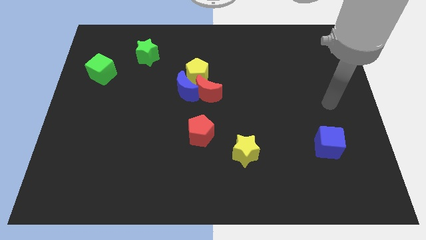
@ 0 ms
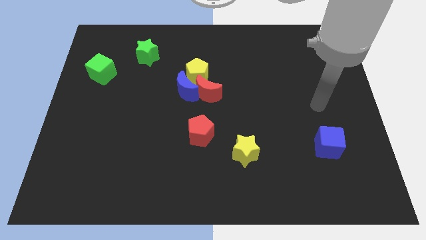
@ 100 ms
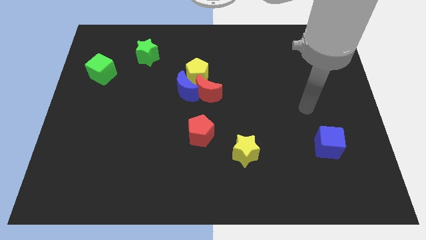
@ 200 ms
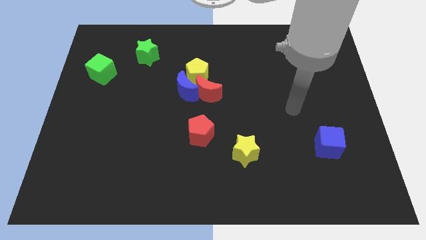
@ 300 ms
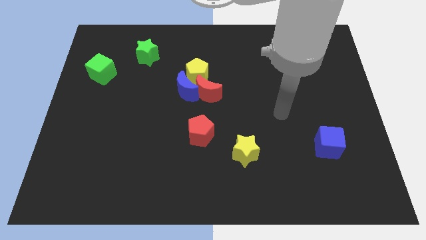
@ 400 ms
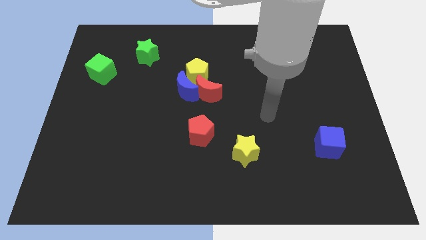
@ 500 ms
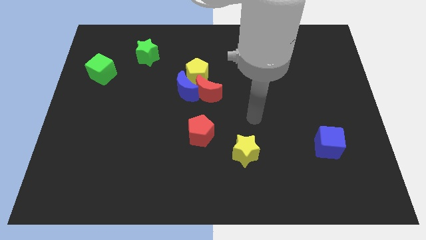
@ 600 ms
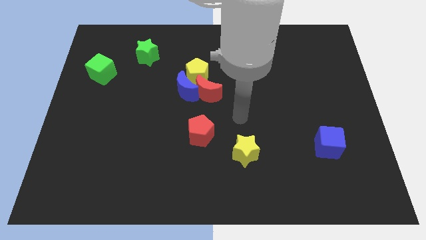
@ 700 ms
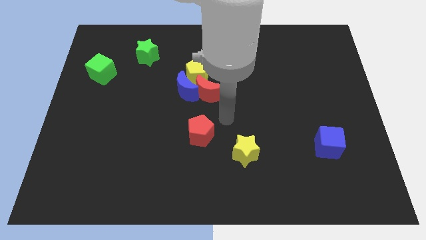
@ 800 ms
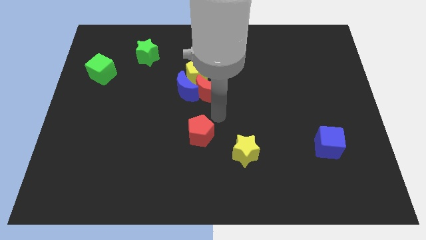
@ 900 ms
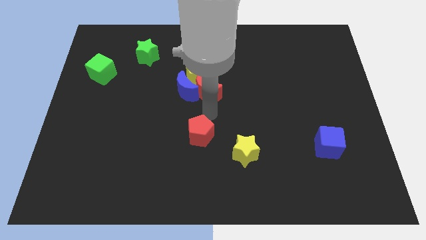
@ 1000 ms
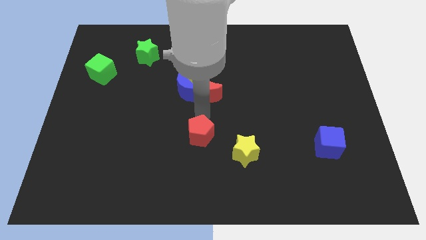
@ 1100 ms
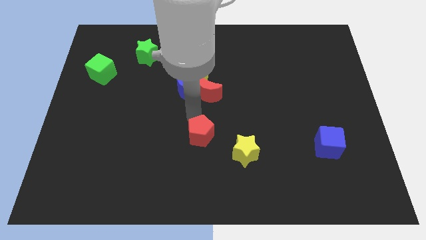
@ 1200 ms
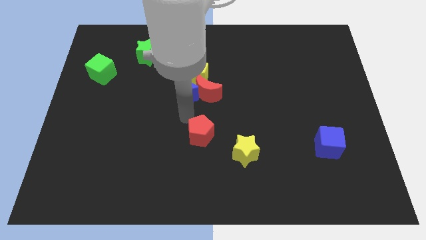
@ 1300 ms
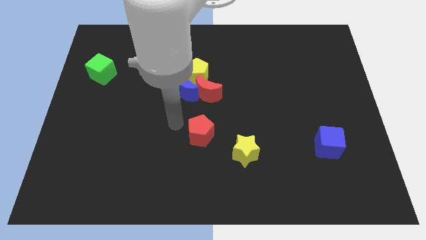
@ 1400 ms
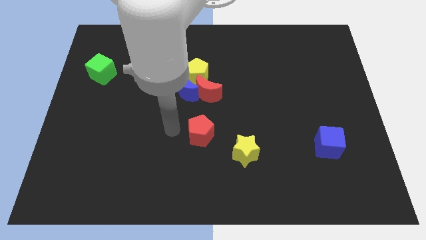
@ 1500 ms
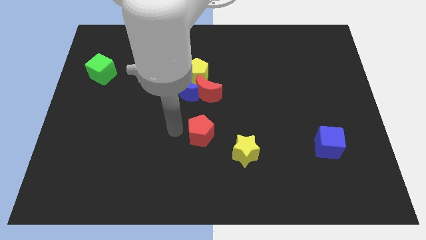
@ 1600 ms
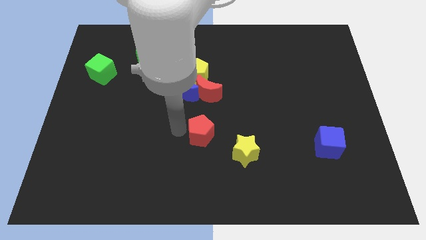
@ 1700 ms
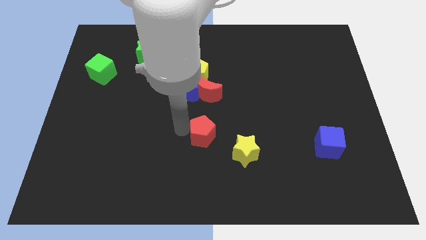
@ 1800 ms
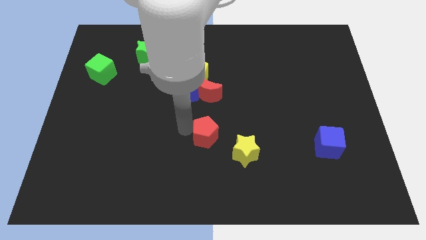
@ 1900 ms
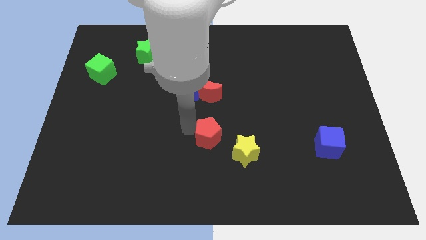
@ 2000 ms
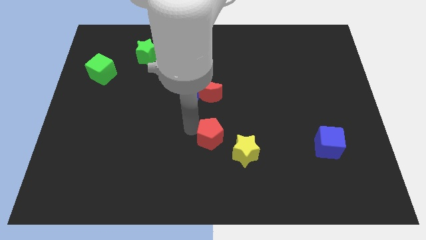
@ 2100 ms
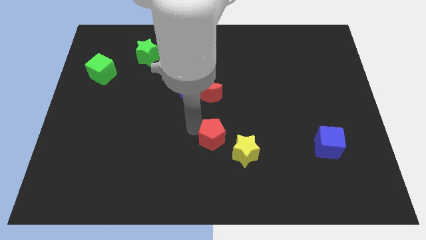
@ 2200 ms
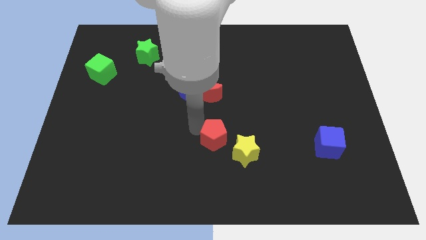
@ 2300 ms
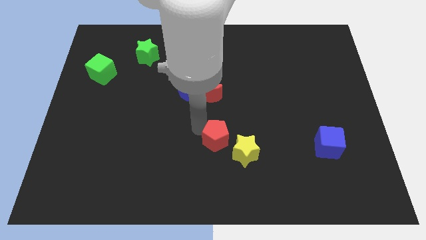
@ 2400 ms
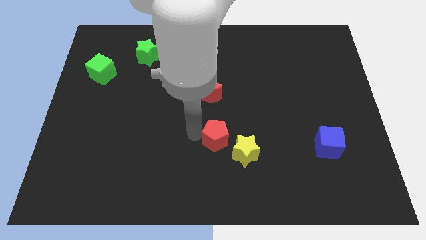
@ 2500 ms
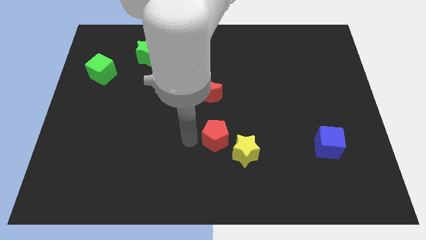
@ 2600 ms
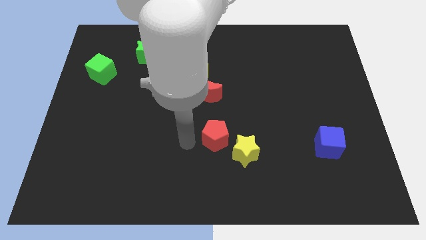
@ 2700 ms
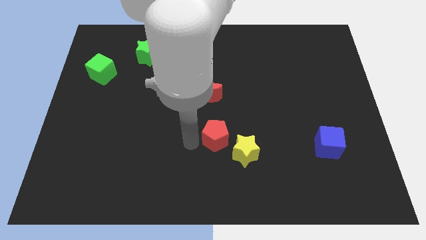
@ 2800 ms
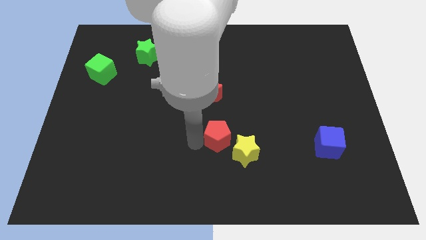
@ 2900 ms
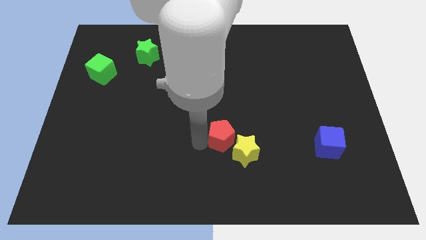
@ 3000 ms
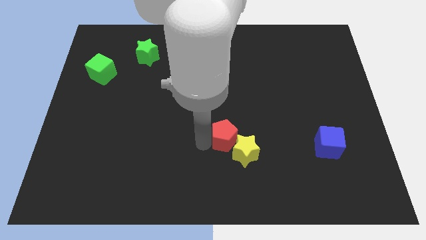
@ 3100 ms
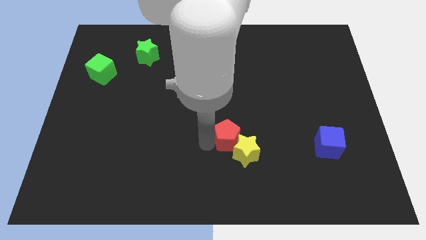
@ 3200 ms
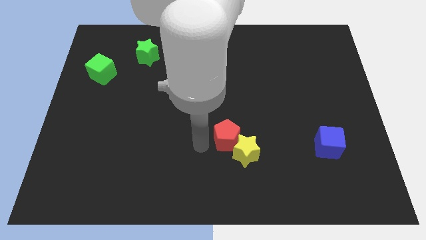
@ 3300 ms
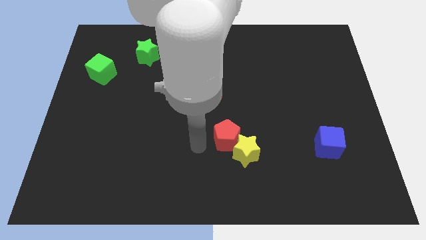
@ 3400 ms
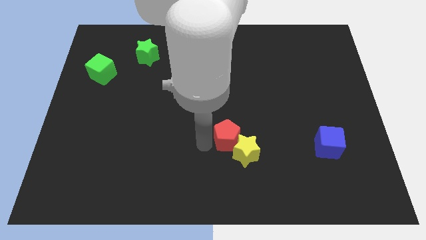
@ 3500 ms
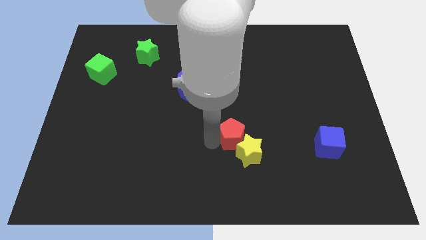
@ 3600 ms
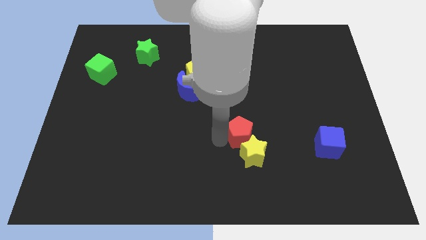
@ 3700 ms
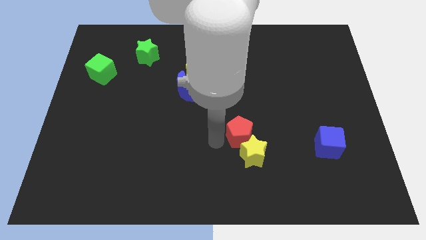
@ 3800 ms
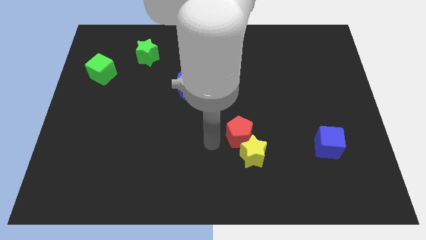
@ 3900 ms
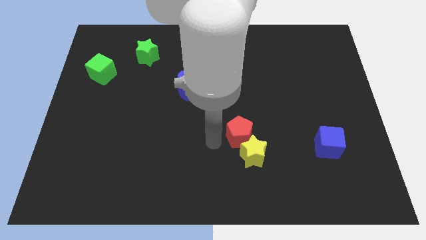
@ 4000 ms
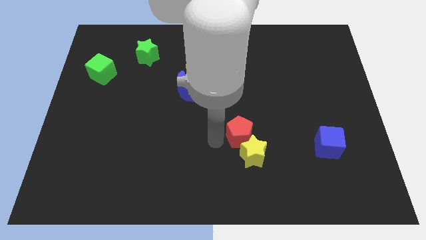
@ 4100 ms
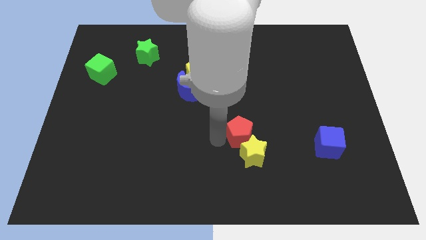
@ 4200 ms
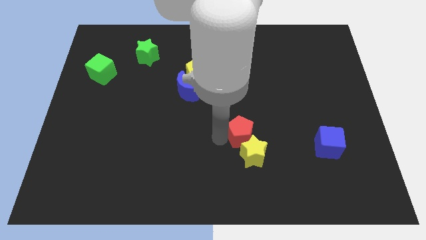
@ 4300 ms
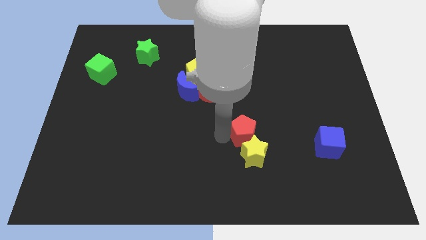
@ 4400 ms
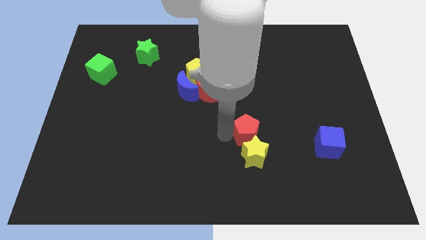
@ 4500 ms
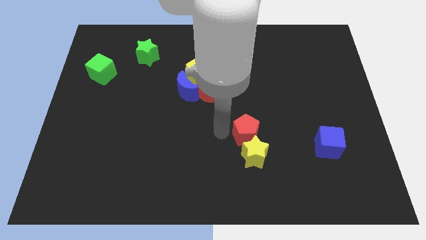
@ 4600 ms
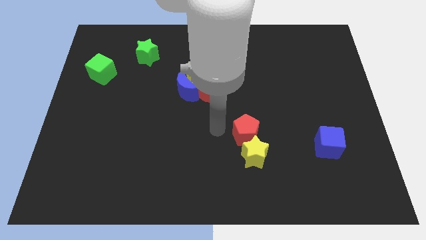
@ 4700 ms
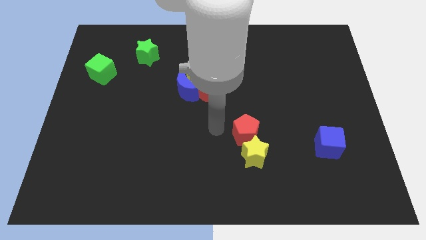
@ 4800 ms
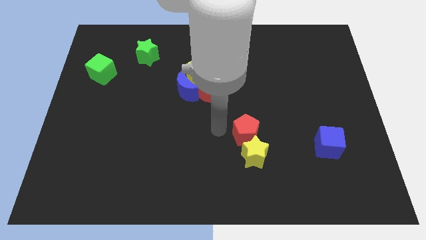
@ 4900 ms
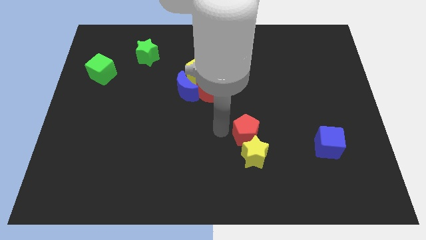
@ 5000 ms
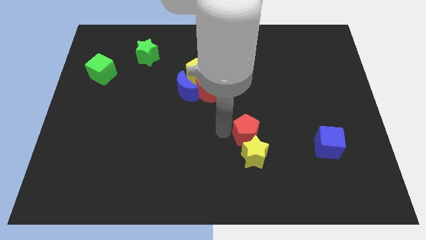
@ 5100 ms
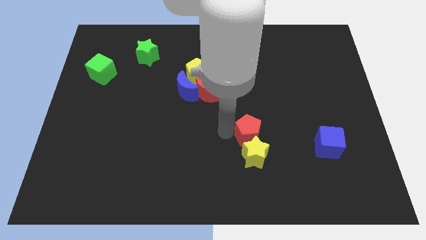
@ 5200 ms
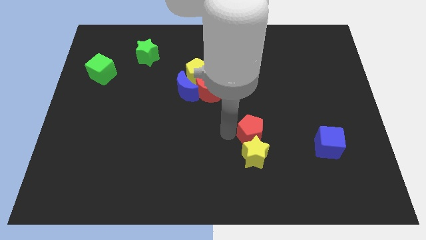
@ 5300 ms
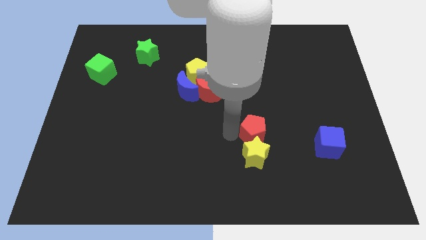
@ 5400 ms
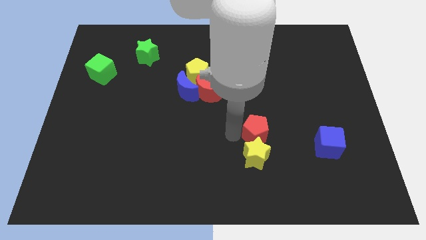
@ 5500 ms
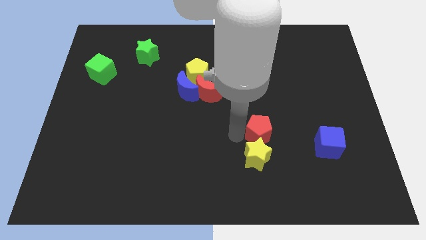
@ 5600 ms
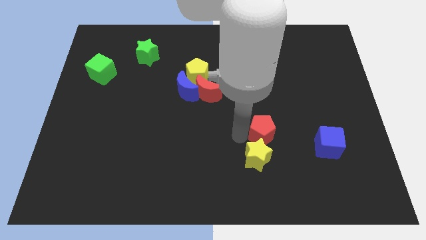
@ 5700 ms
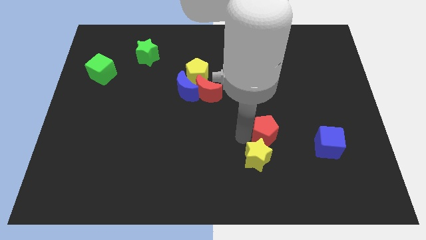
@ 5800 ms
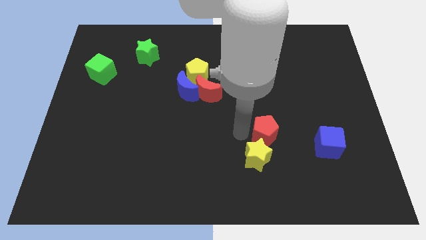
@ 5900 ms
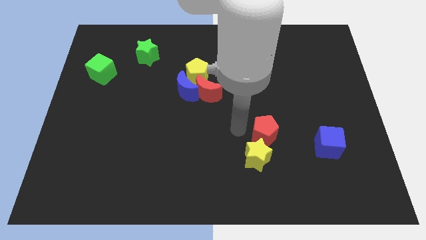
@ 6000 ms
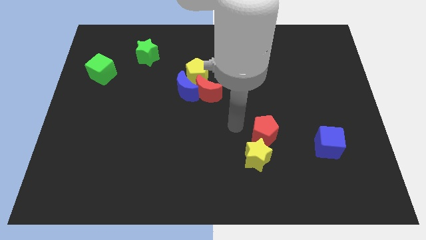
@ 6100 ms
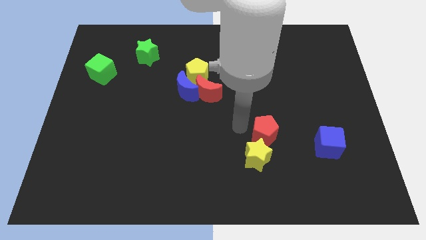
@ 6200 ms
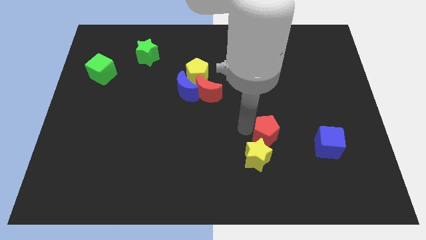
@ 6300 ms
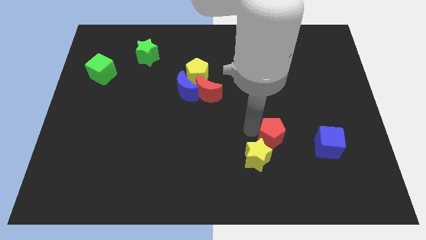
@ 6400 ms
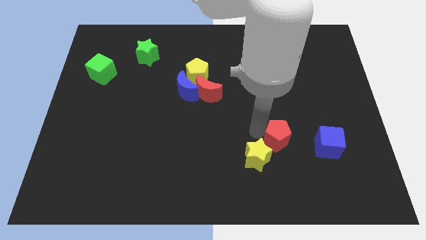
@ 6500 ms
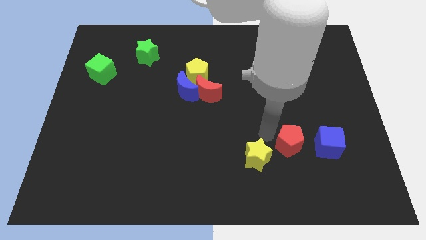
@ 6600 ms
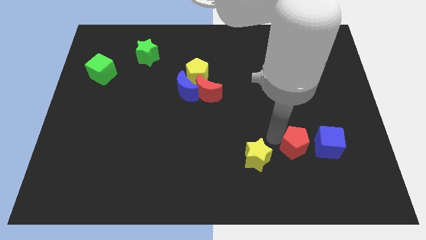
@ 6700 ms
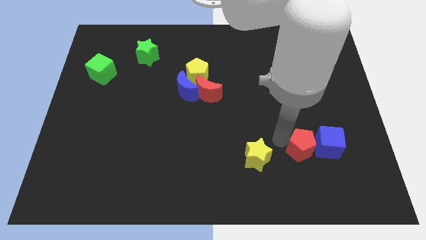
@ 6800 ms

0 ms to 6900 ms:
move the red pentagon towards the blue cube
